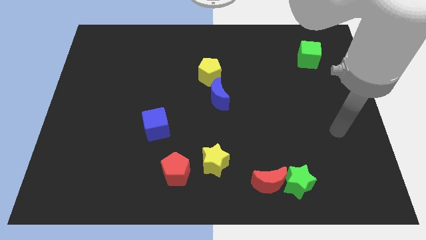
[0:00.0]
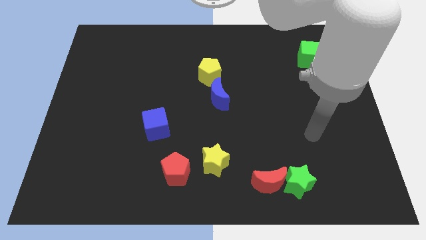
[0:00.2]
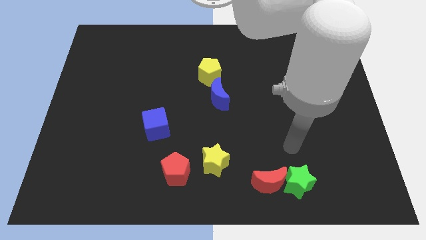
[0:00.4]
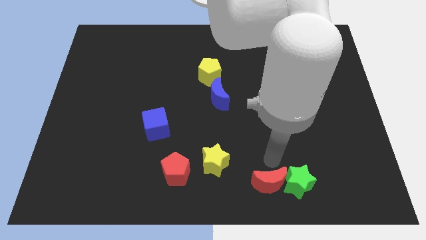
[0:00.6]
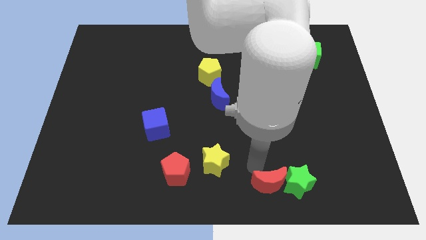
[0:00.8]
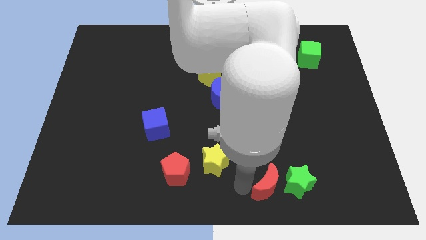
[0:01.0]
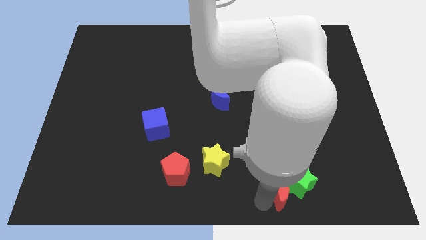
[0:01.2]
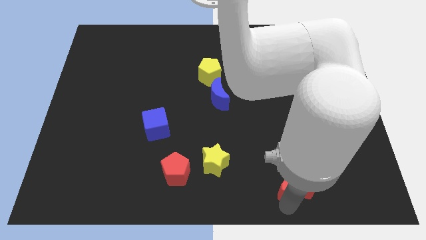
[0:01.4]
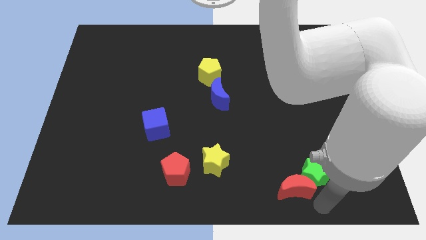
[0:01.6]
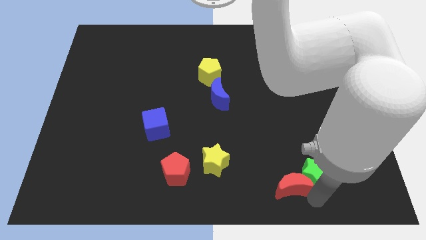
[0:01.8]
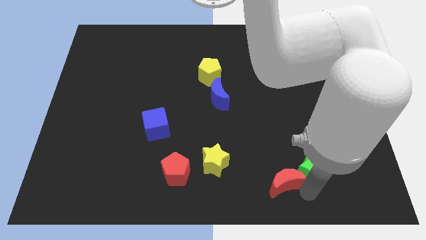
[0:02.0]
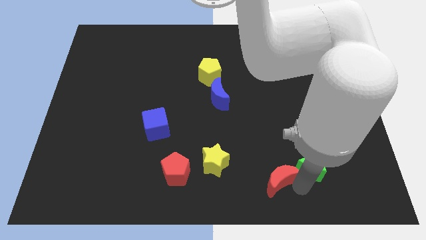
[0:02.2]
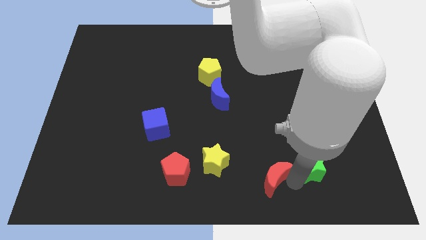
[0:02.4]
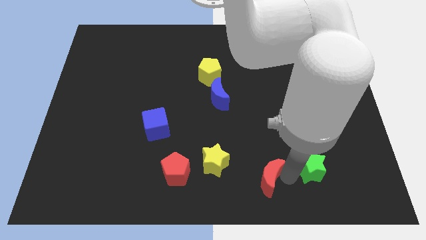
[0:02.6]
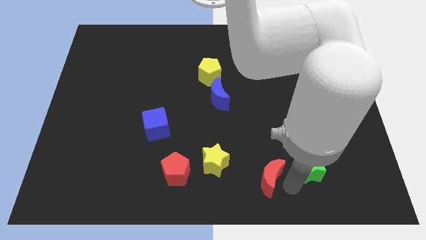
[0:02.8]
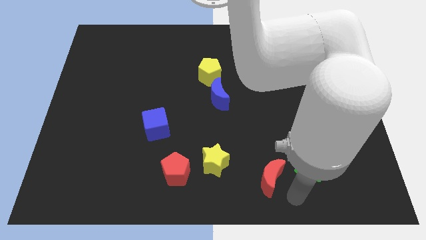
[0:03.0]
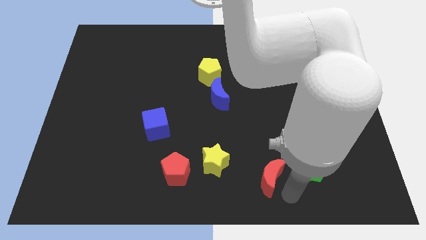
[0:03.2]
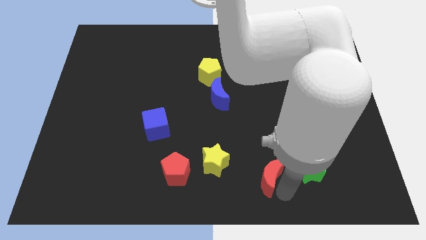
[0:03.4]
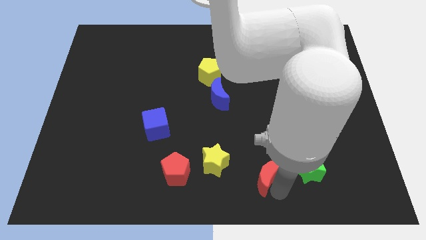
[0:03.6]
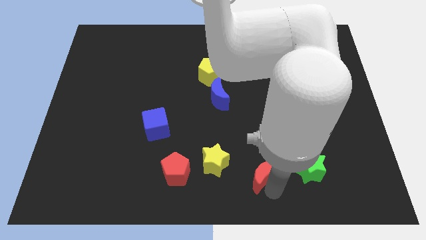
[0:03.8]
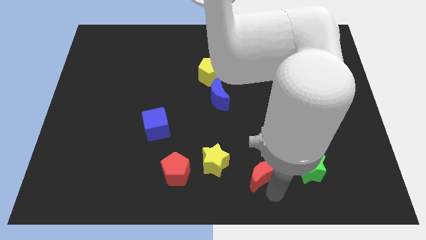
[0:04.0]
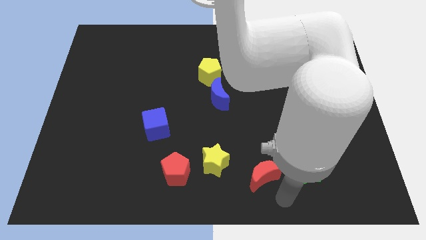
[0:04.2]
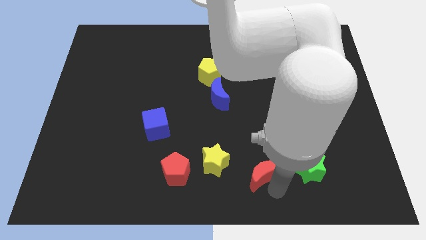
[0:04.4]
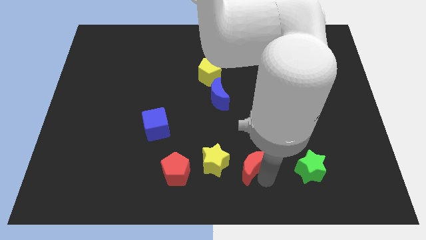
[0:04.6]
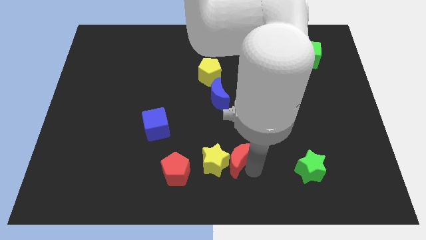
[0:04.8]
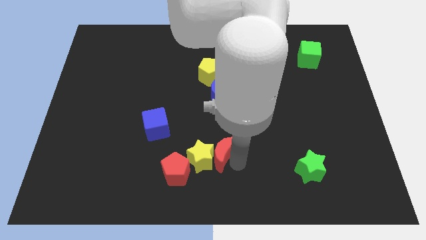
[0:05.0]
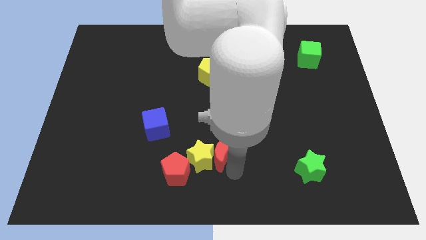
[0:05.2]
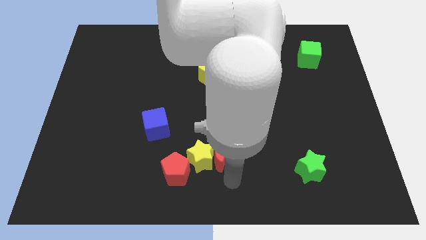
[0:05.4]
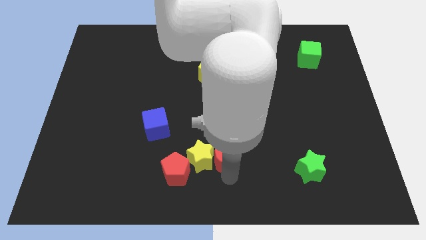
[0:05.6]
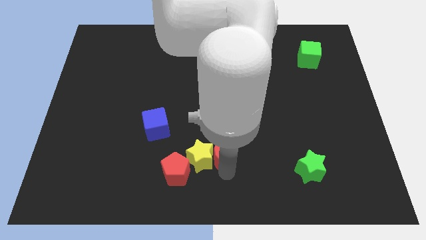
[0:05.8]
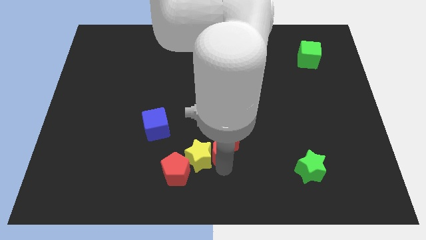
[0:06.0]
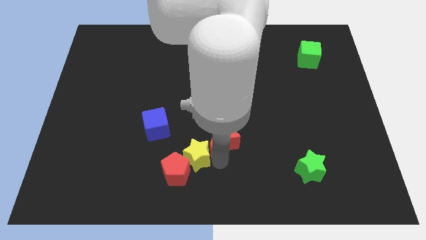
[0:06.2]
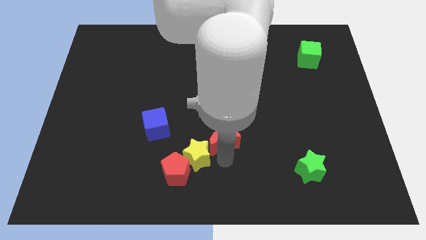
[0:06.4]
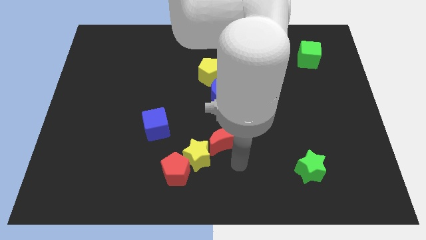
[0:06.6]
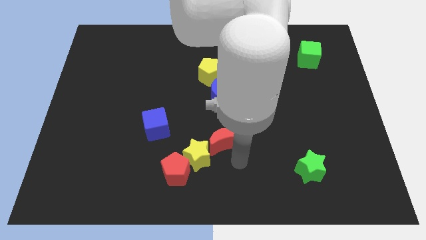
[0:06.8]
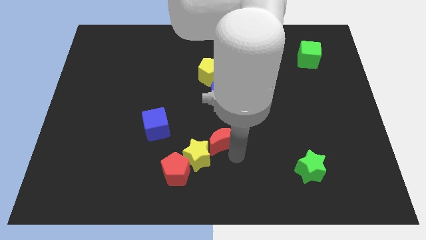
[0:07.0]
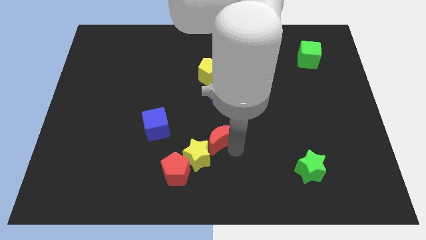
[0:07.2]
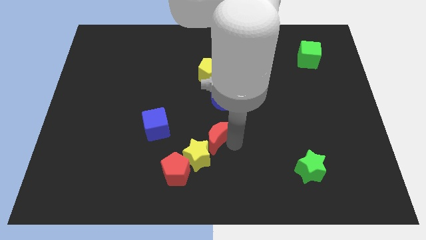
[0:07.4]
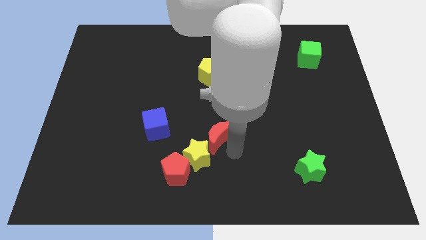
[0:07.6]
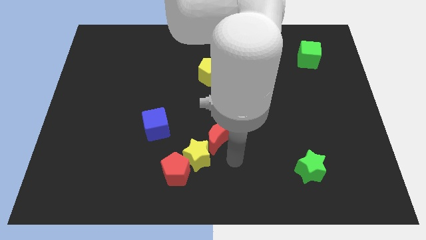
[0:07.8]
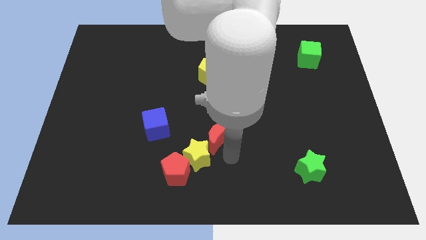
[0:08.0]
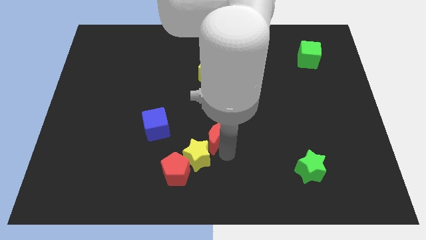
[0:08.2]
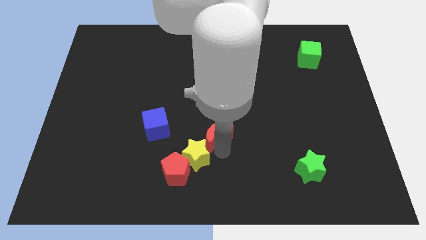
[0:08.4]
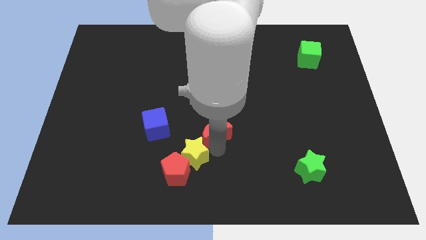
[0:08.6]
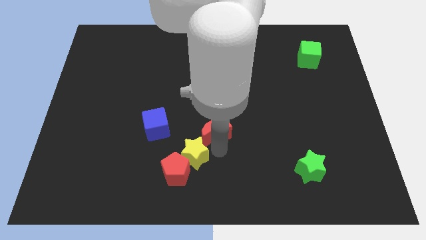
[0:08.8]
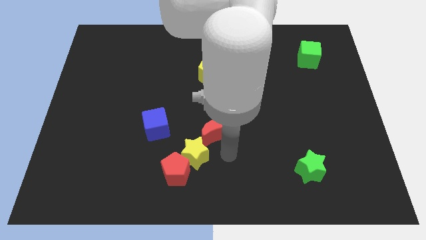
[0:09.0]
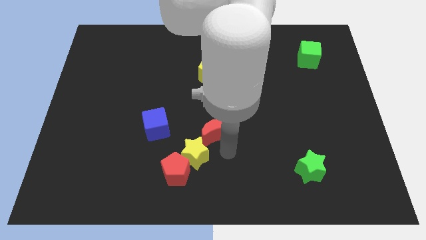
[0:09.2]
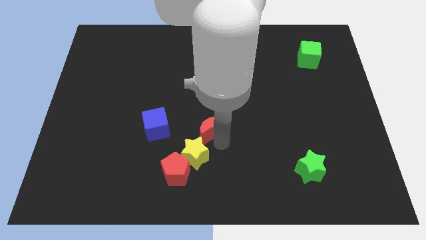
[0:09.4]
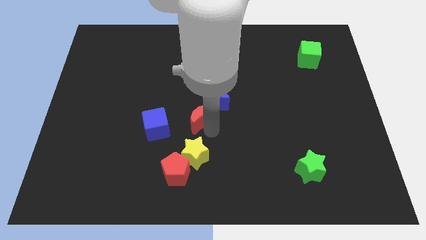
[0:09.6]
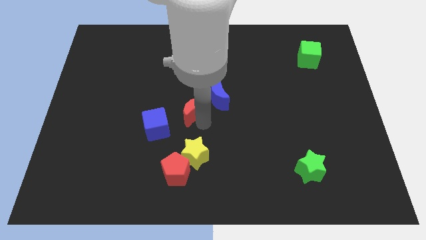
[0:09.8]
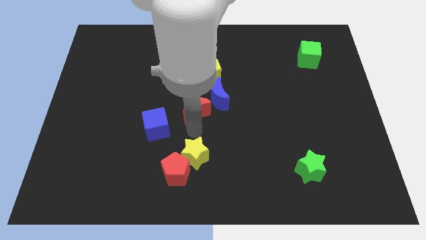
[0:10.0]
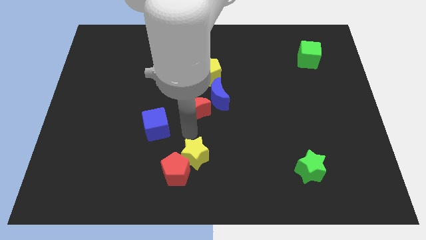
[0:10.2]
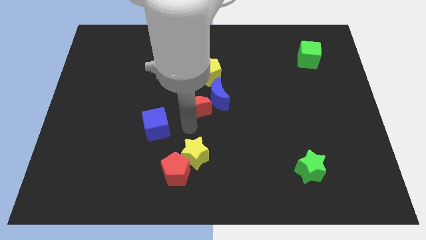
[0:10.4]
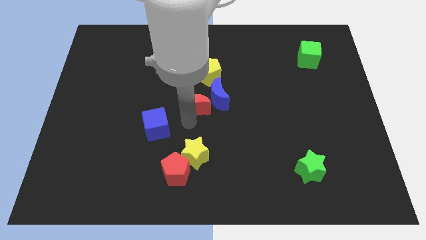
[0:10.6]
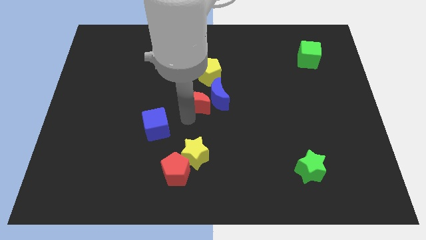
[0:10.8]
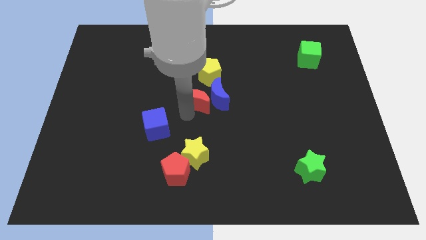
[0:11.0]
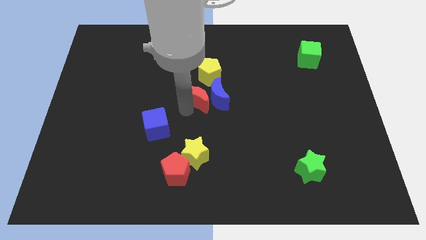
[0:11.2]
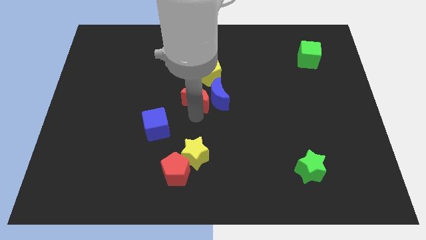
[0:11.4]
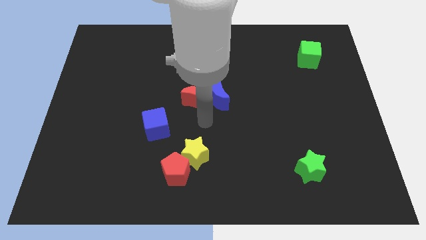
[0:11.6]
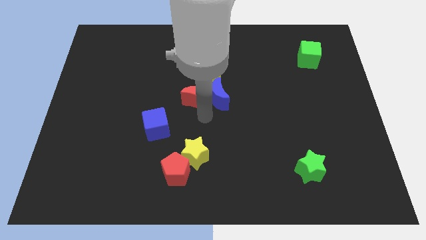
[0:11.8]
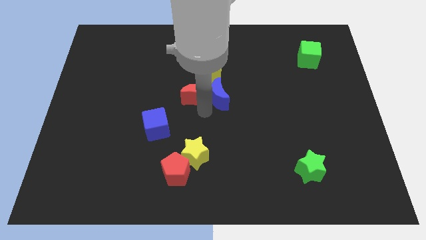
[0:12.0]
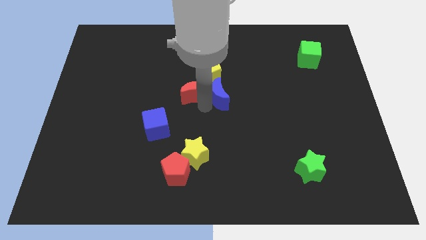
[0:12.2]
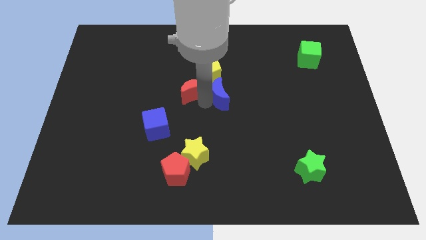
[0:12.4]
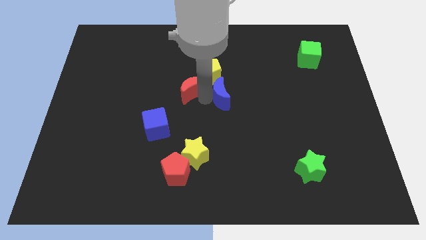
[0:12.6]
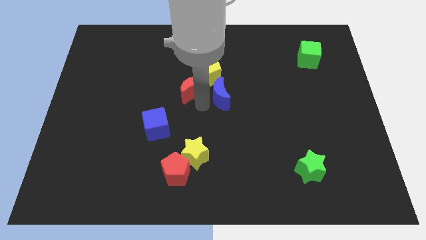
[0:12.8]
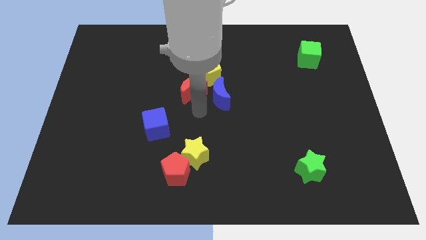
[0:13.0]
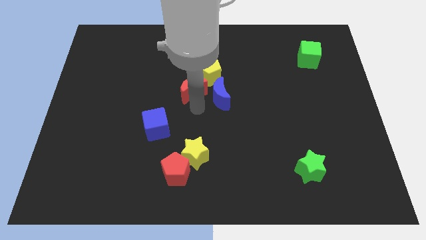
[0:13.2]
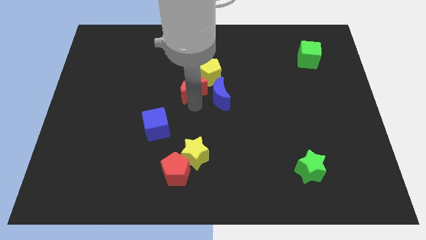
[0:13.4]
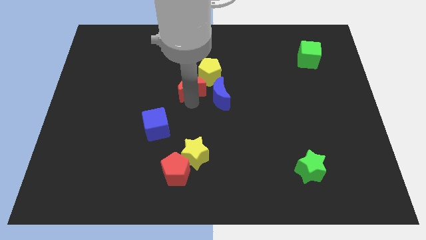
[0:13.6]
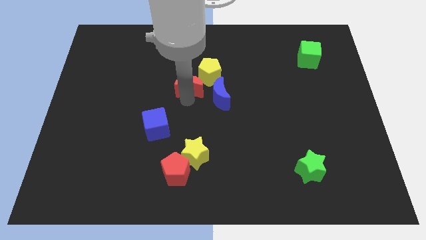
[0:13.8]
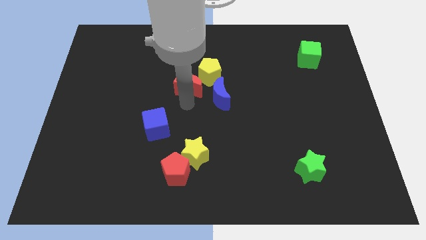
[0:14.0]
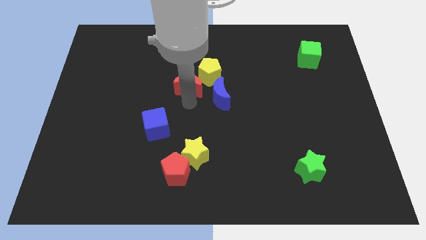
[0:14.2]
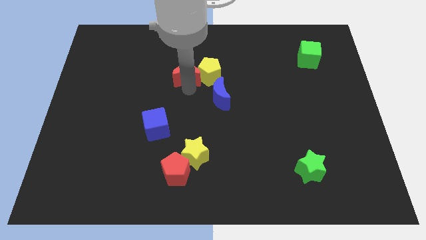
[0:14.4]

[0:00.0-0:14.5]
push the red moon to the top left of the yellow pentagon
